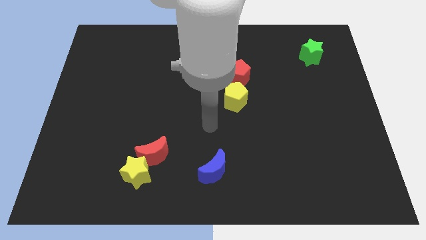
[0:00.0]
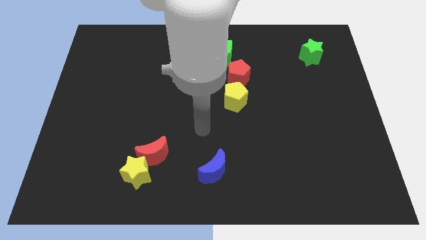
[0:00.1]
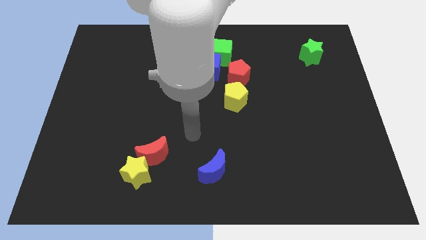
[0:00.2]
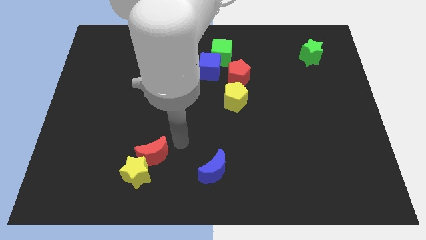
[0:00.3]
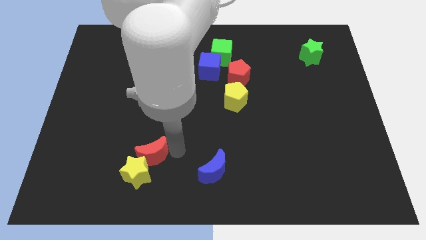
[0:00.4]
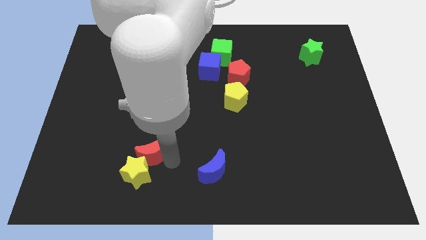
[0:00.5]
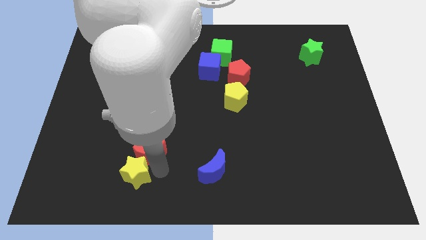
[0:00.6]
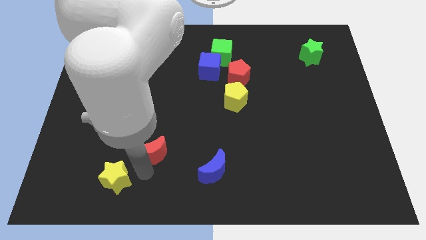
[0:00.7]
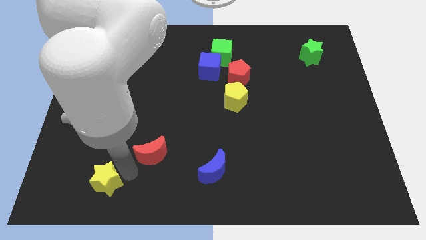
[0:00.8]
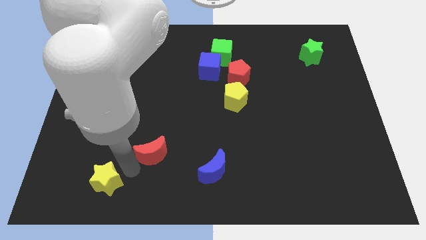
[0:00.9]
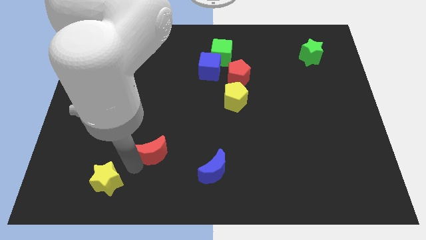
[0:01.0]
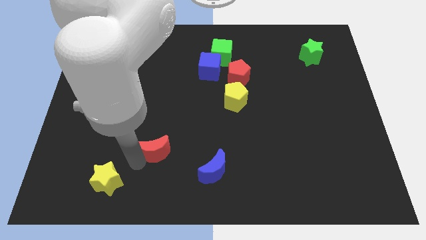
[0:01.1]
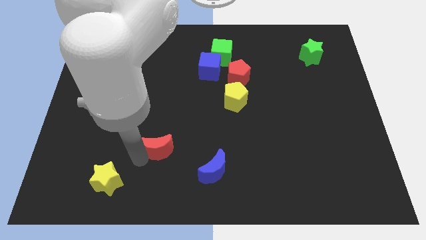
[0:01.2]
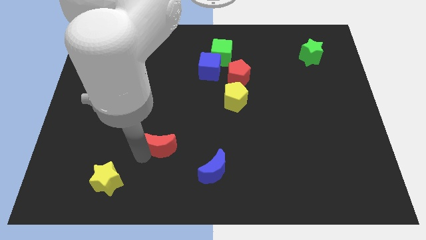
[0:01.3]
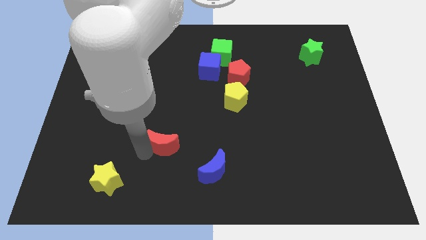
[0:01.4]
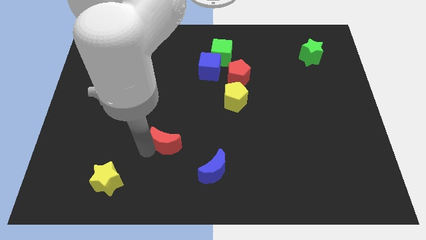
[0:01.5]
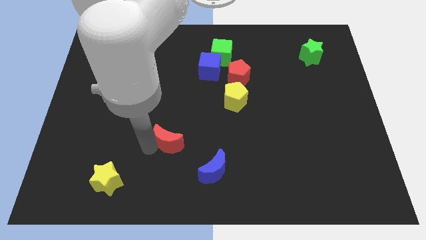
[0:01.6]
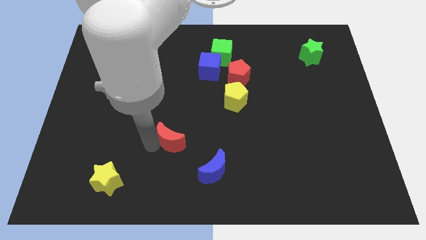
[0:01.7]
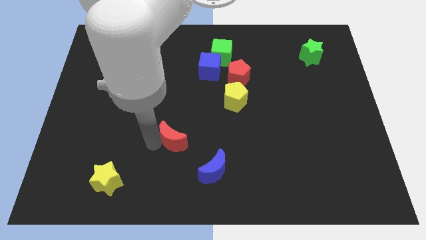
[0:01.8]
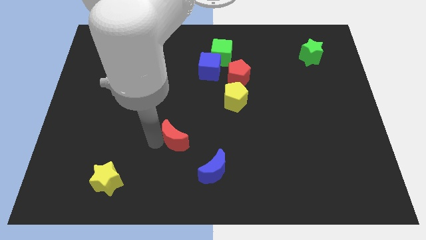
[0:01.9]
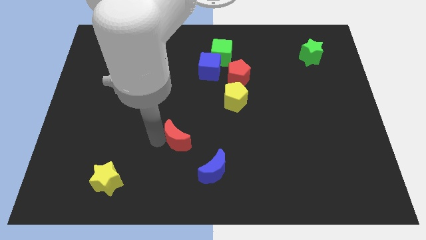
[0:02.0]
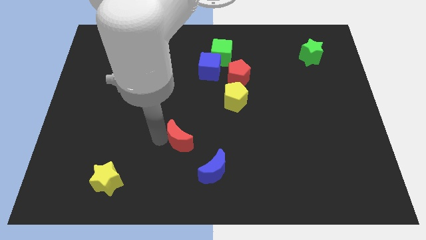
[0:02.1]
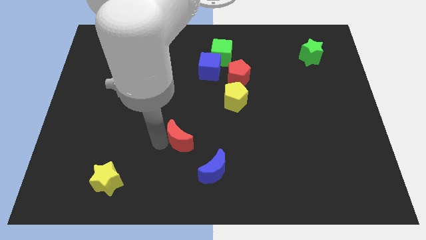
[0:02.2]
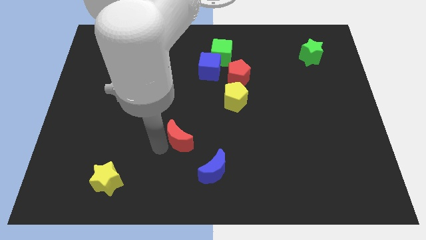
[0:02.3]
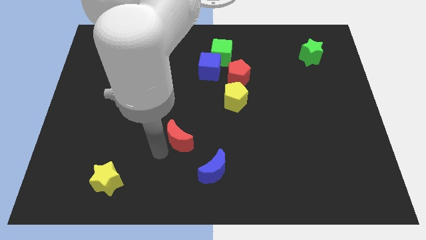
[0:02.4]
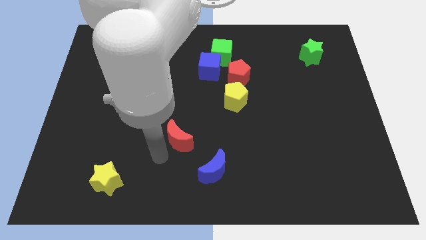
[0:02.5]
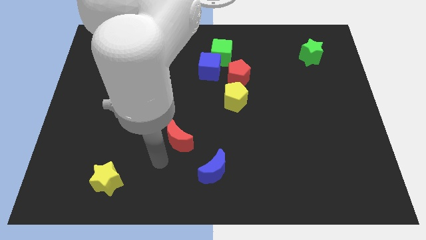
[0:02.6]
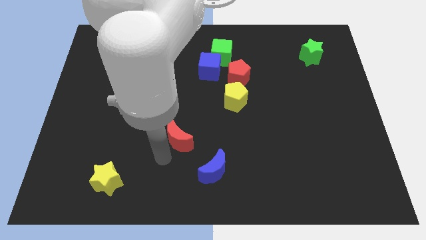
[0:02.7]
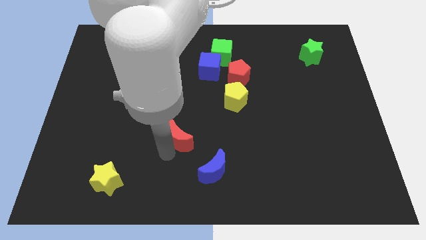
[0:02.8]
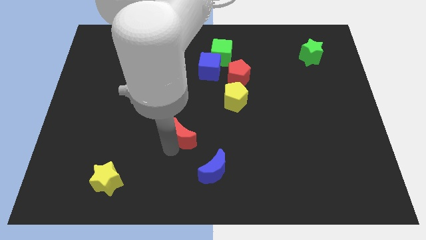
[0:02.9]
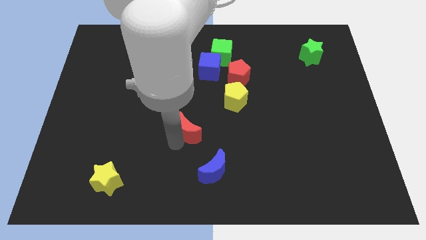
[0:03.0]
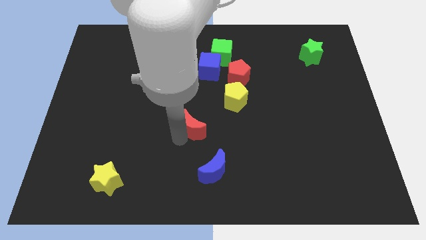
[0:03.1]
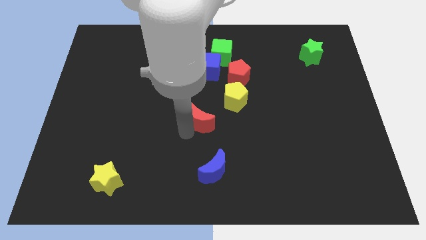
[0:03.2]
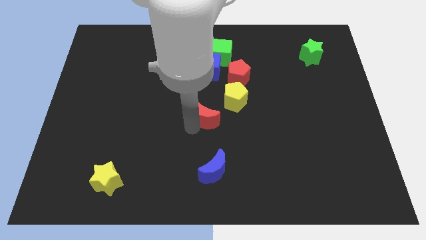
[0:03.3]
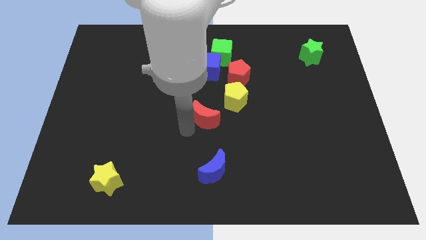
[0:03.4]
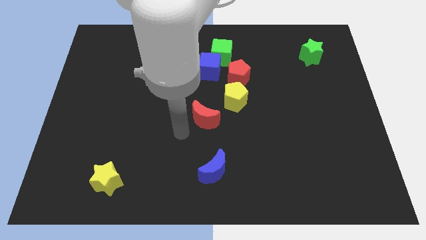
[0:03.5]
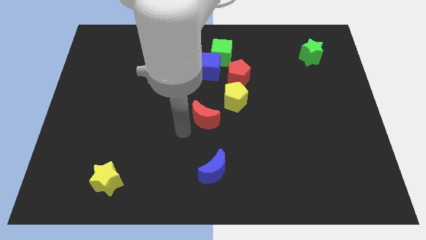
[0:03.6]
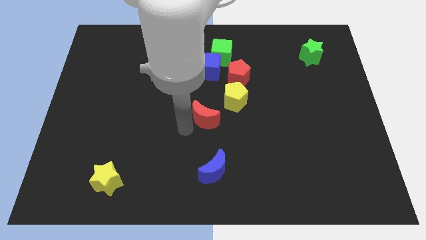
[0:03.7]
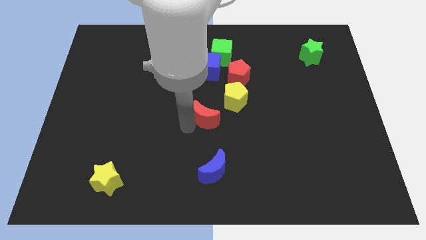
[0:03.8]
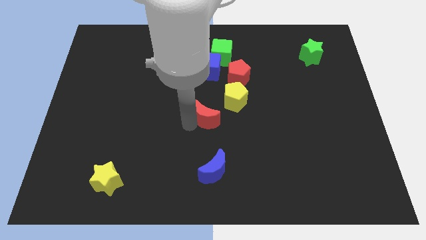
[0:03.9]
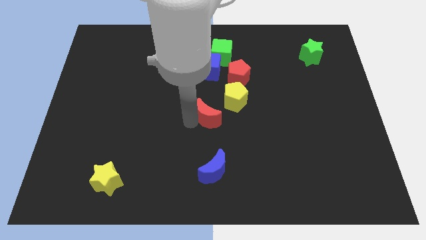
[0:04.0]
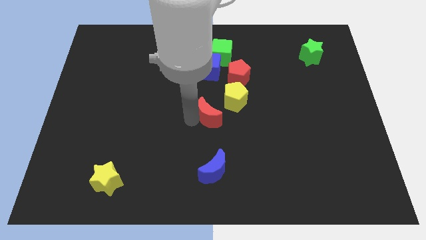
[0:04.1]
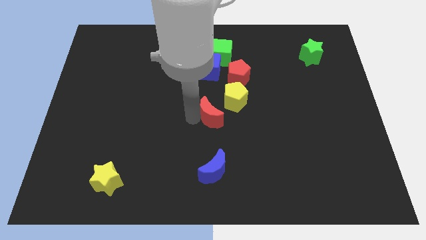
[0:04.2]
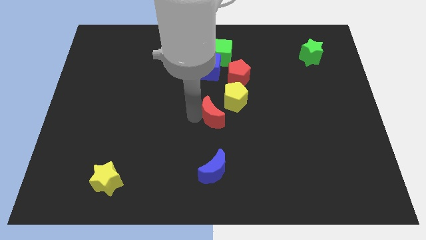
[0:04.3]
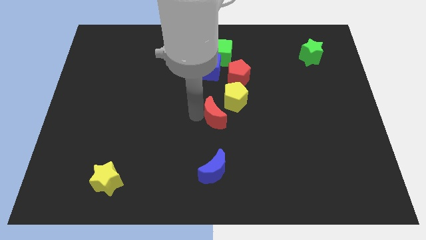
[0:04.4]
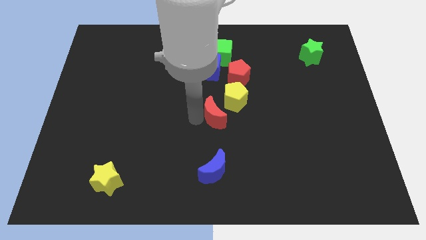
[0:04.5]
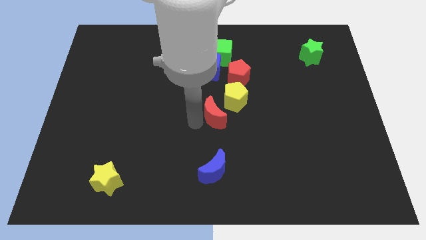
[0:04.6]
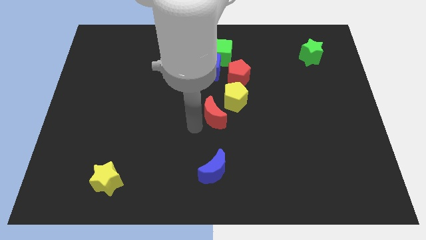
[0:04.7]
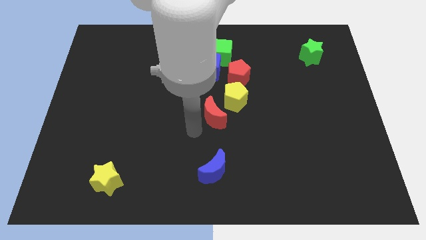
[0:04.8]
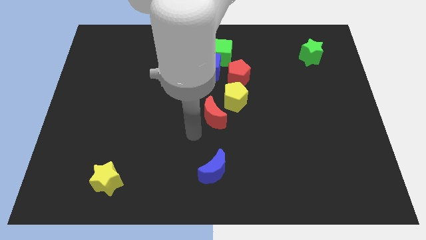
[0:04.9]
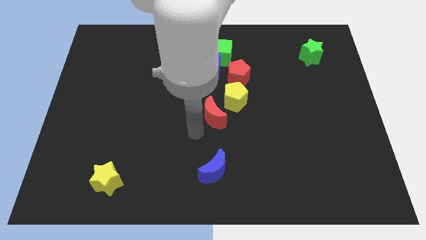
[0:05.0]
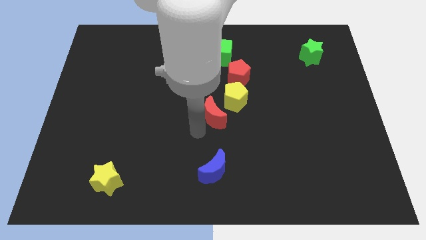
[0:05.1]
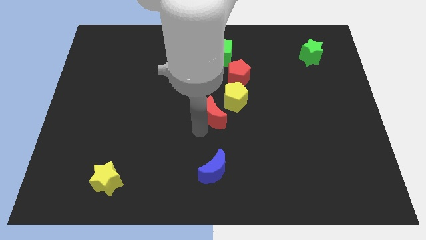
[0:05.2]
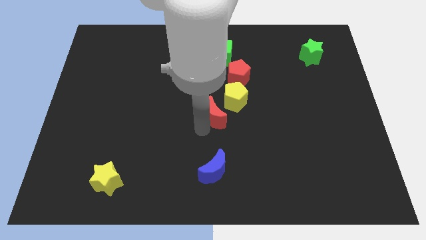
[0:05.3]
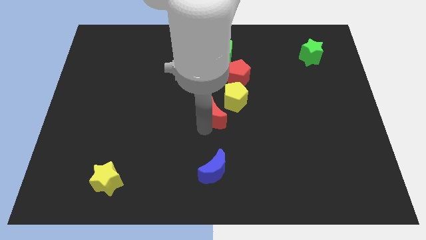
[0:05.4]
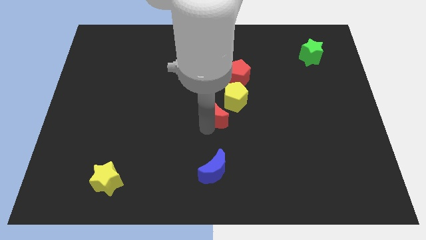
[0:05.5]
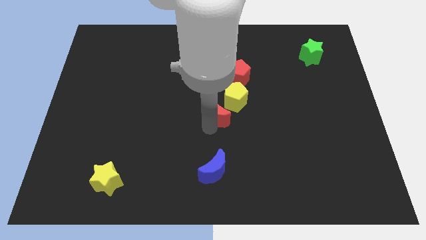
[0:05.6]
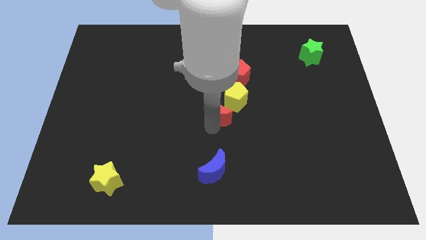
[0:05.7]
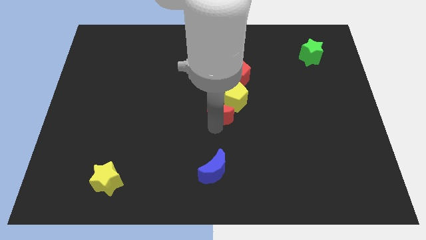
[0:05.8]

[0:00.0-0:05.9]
slide the red moon next to the yellow pentagon

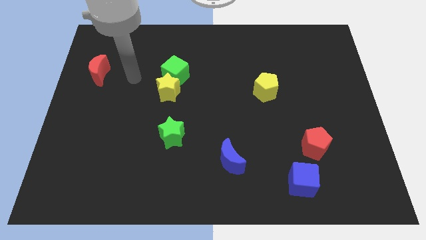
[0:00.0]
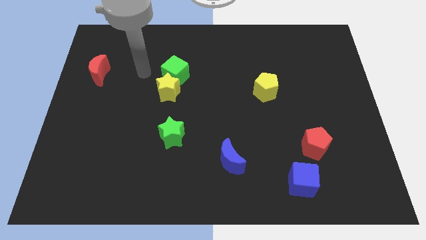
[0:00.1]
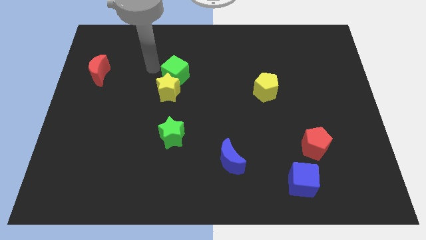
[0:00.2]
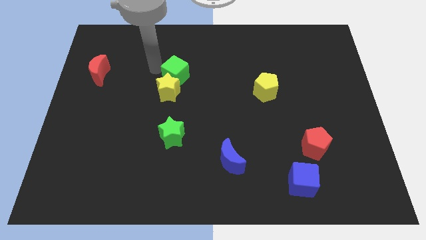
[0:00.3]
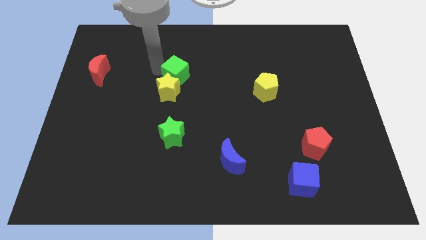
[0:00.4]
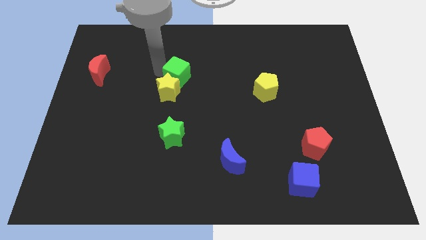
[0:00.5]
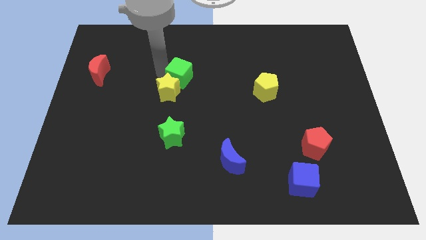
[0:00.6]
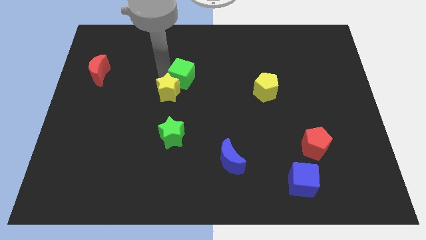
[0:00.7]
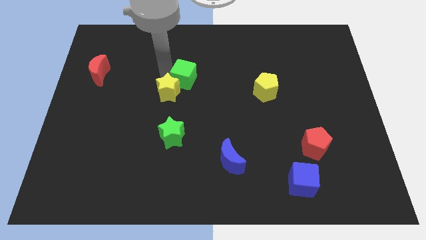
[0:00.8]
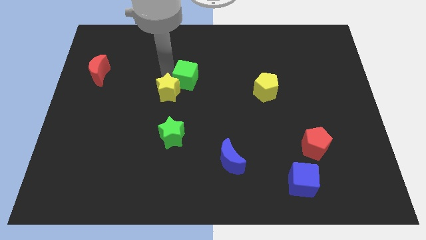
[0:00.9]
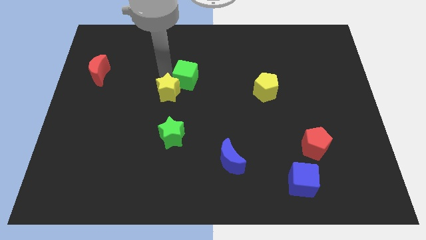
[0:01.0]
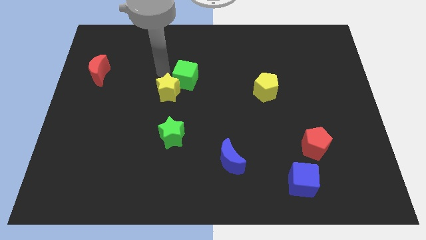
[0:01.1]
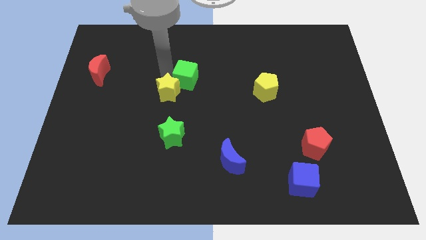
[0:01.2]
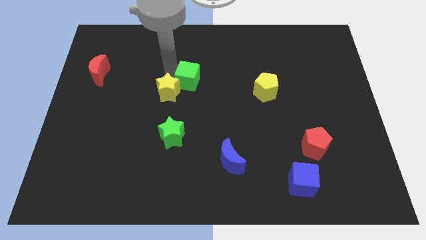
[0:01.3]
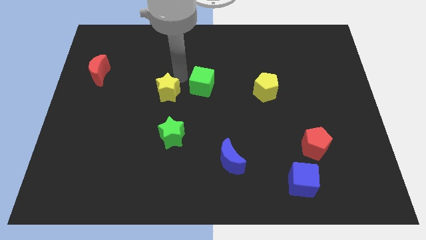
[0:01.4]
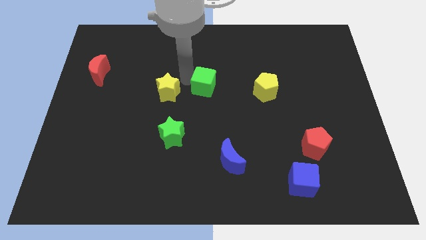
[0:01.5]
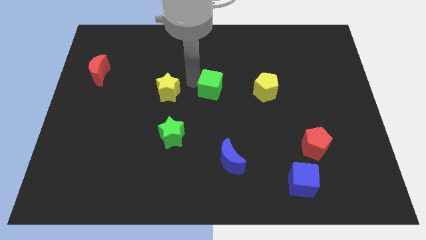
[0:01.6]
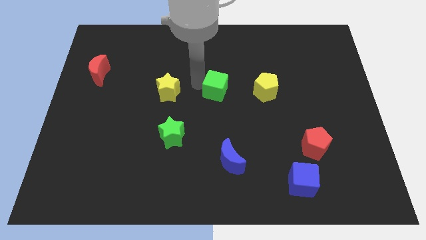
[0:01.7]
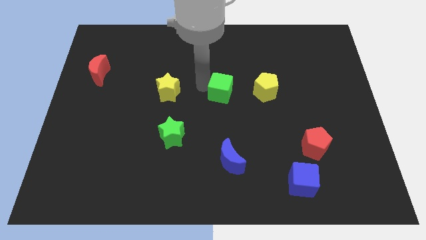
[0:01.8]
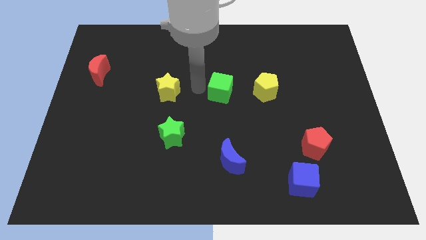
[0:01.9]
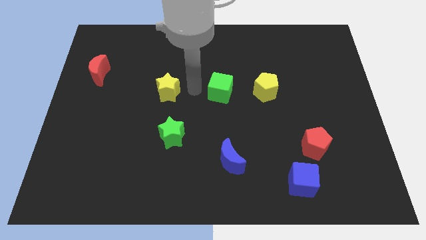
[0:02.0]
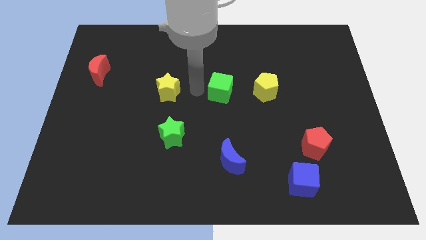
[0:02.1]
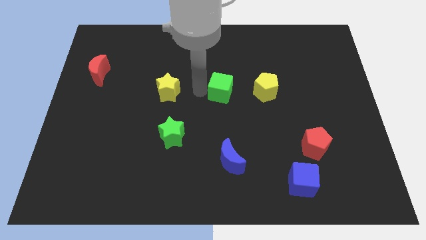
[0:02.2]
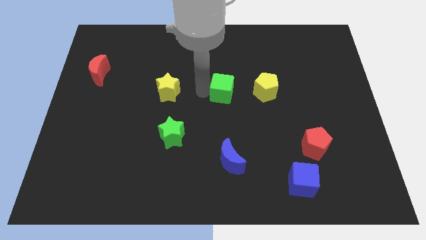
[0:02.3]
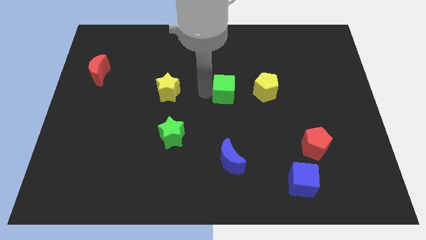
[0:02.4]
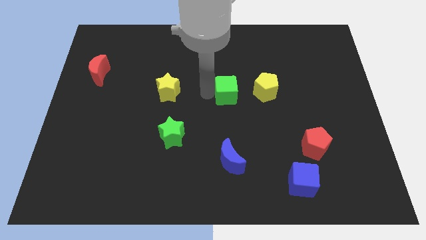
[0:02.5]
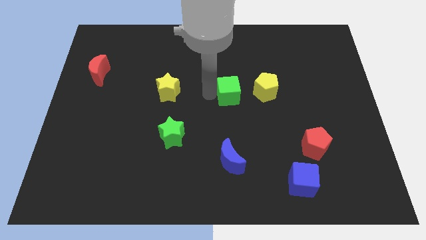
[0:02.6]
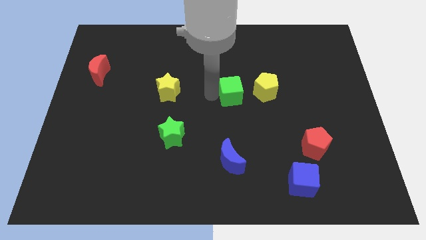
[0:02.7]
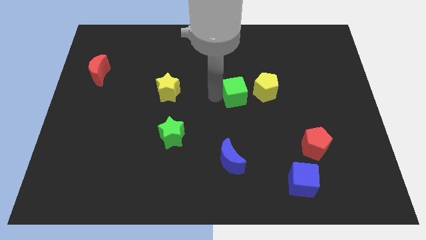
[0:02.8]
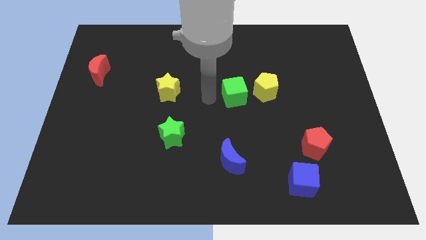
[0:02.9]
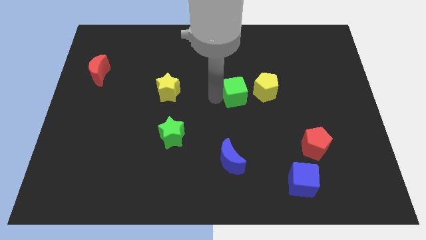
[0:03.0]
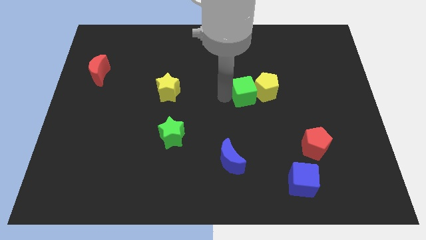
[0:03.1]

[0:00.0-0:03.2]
slide the green cube towards the yellow pentagon
